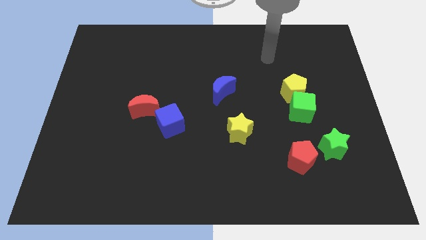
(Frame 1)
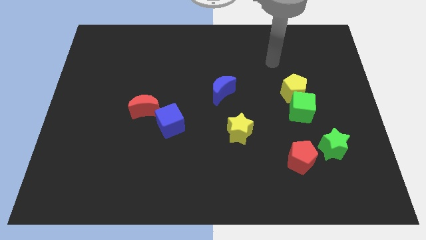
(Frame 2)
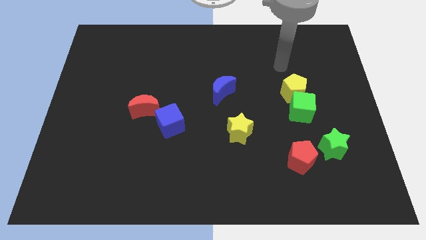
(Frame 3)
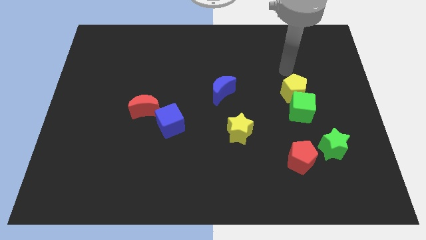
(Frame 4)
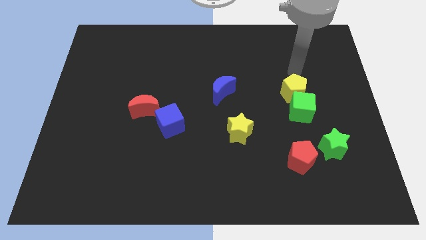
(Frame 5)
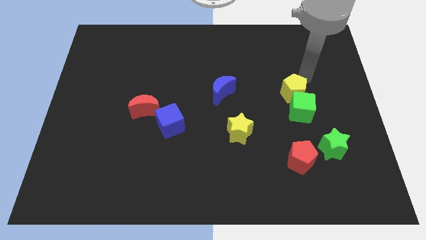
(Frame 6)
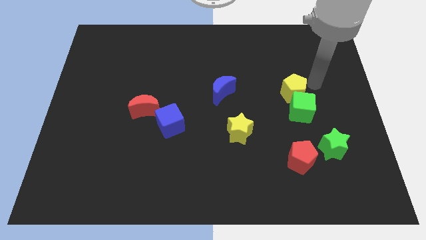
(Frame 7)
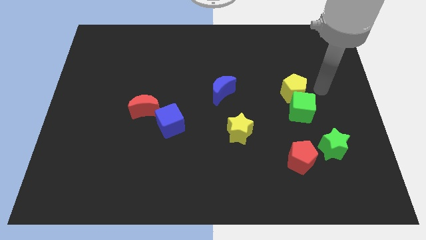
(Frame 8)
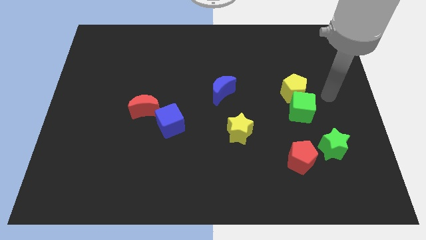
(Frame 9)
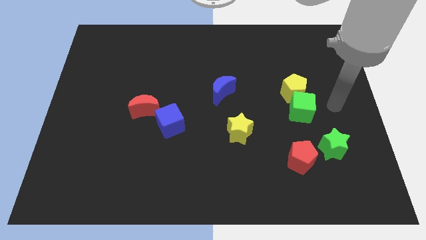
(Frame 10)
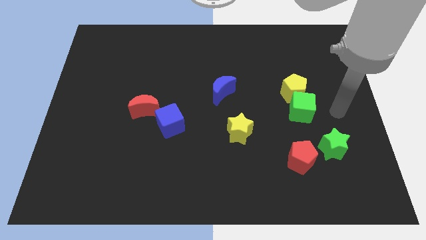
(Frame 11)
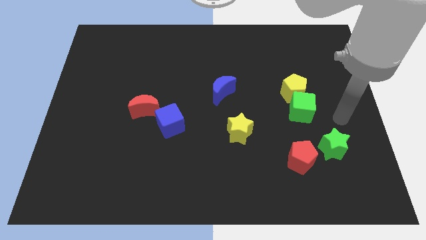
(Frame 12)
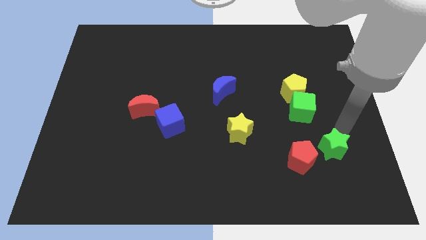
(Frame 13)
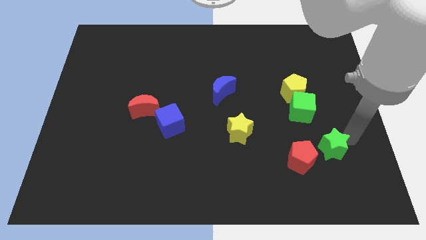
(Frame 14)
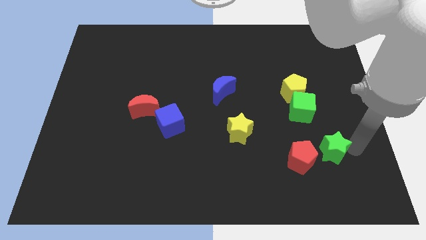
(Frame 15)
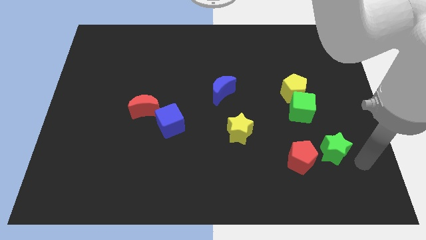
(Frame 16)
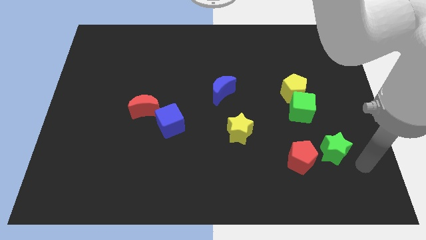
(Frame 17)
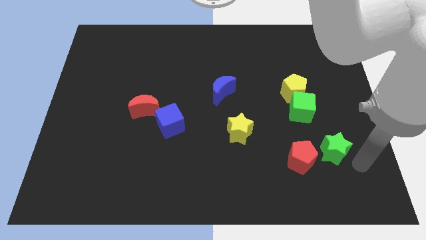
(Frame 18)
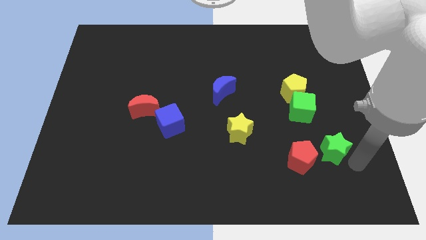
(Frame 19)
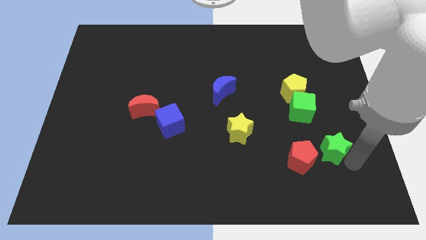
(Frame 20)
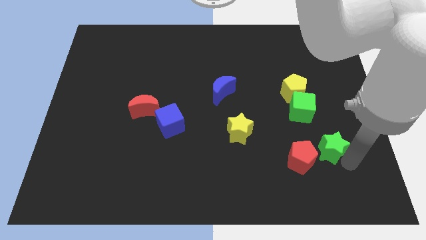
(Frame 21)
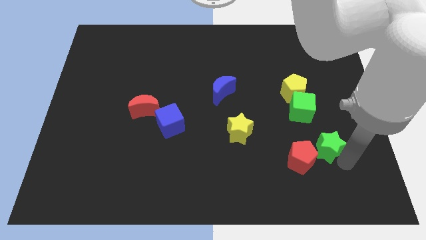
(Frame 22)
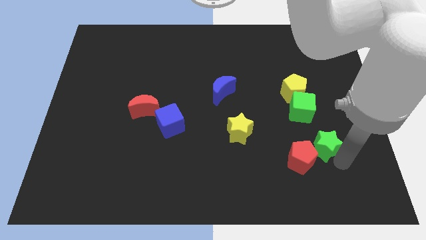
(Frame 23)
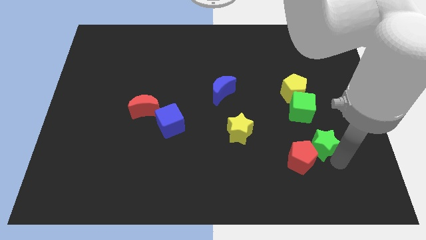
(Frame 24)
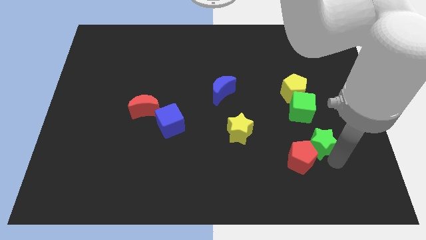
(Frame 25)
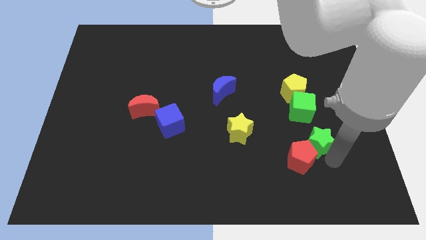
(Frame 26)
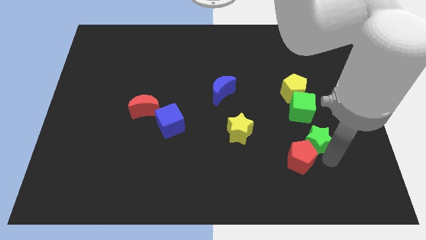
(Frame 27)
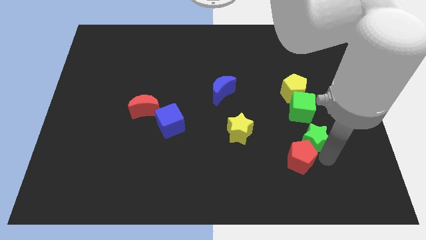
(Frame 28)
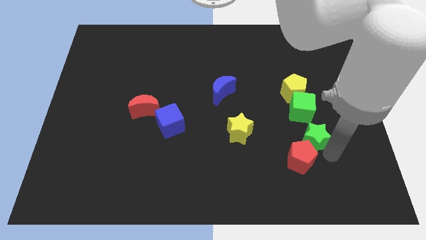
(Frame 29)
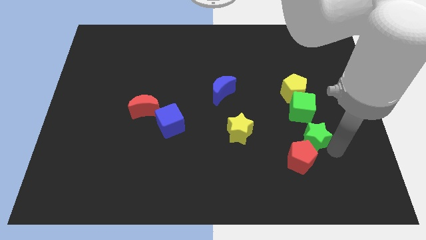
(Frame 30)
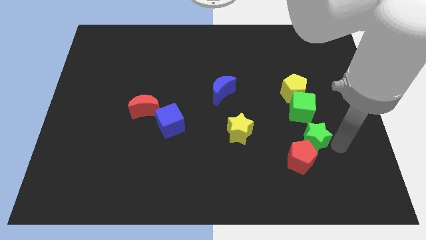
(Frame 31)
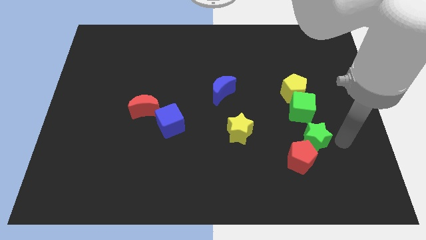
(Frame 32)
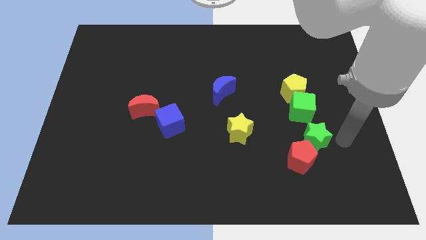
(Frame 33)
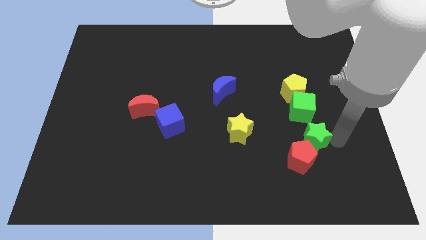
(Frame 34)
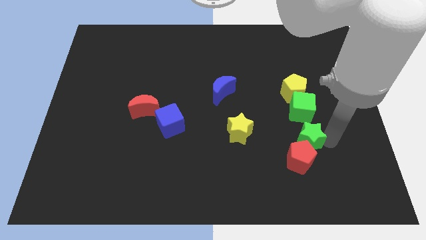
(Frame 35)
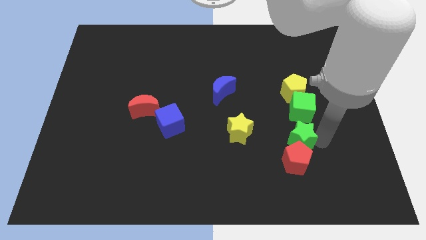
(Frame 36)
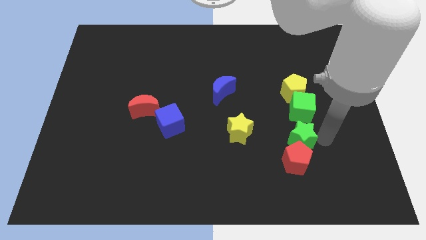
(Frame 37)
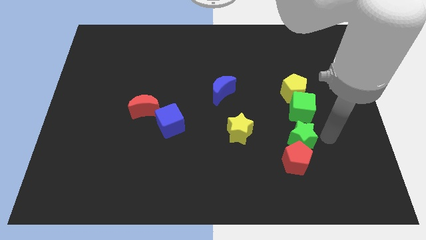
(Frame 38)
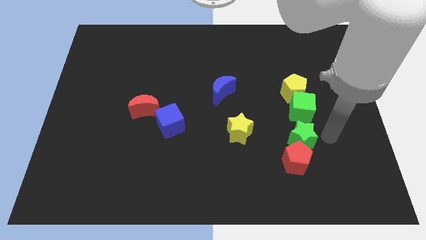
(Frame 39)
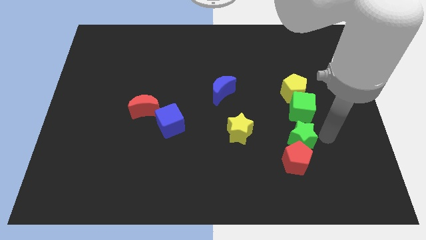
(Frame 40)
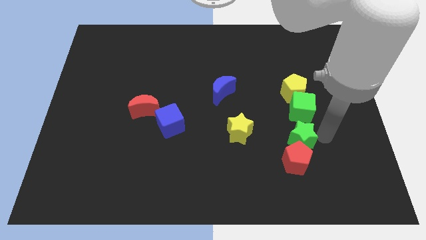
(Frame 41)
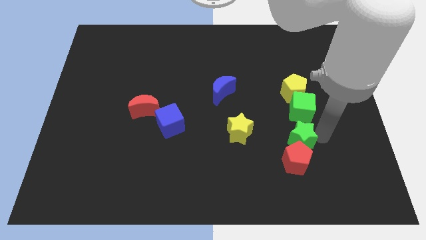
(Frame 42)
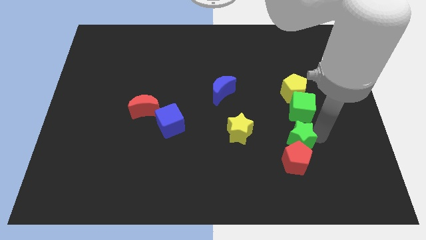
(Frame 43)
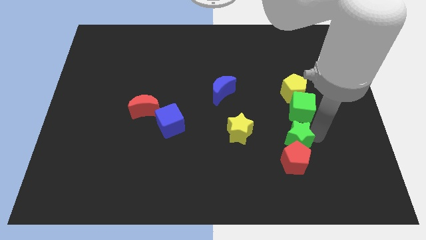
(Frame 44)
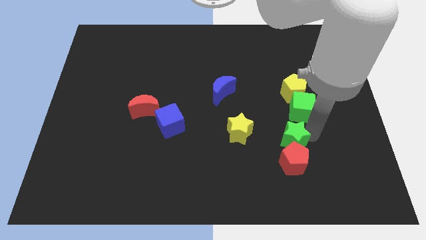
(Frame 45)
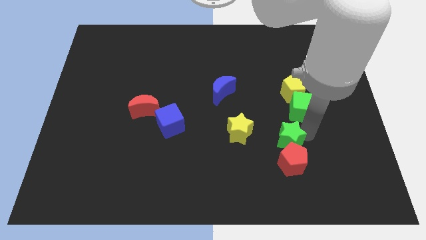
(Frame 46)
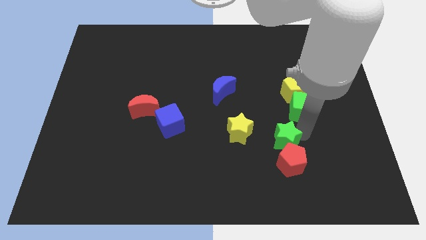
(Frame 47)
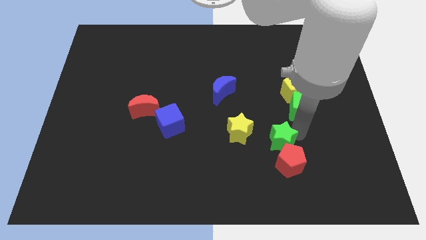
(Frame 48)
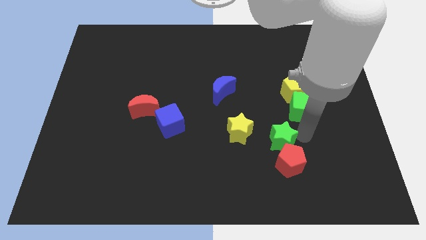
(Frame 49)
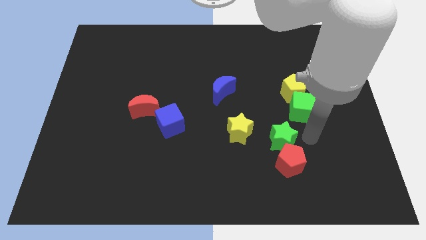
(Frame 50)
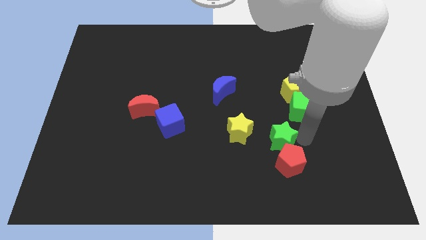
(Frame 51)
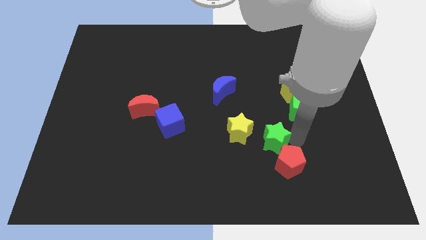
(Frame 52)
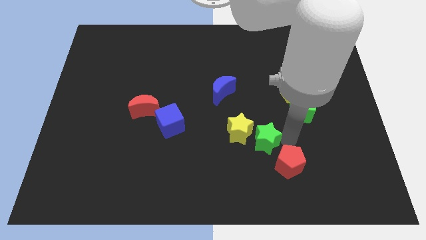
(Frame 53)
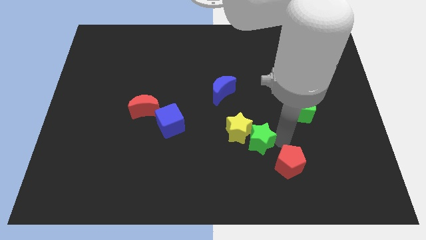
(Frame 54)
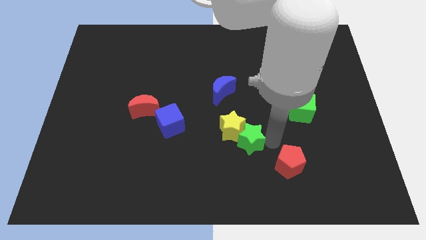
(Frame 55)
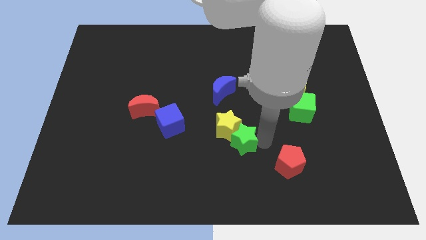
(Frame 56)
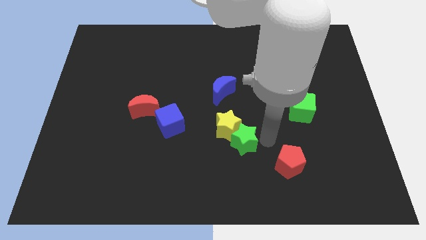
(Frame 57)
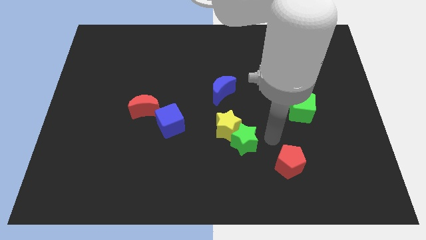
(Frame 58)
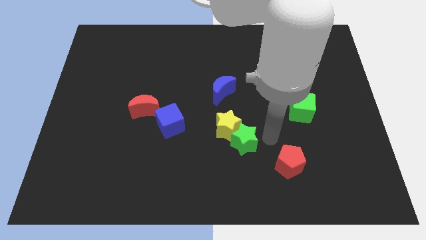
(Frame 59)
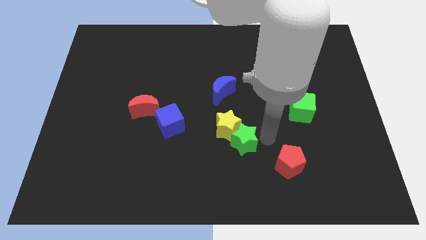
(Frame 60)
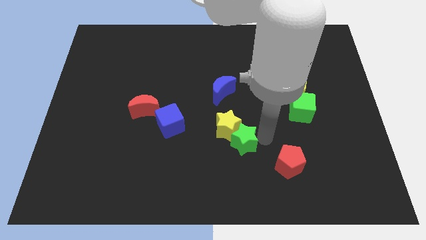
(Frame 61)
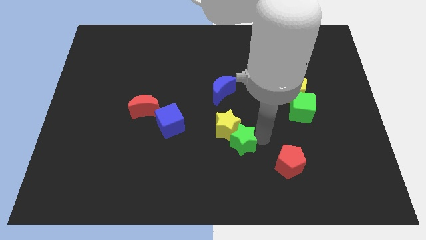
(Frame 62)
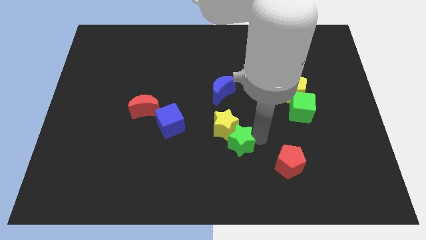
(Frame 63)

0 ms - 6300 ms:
move the green star to the left

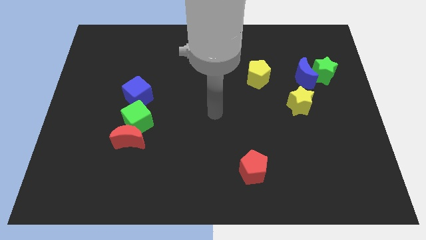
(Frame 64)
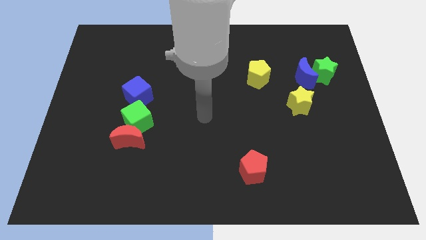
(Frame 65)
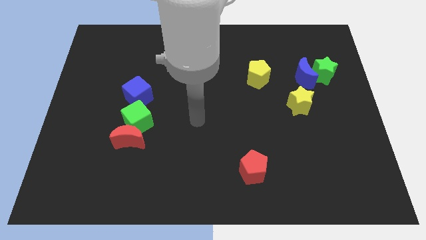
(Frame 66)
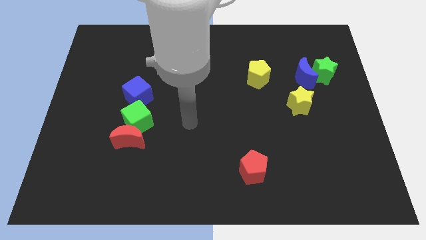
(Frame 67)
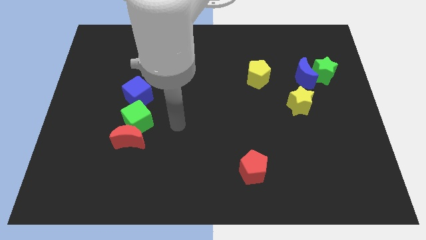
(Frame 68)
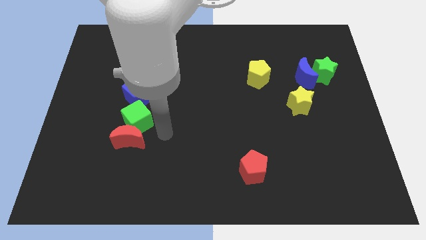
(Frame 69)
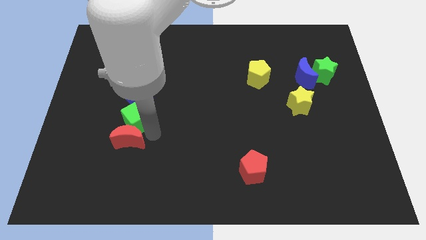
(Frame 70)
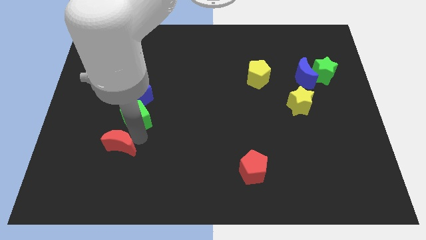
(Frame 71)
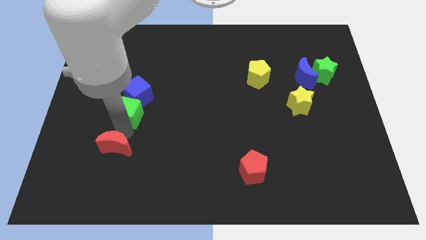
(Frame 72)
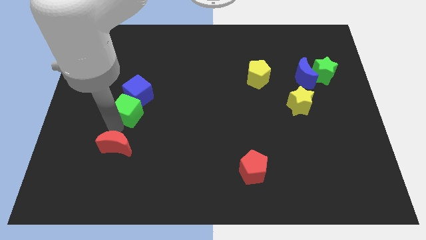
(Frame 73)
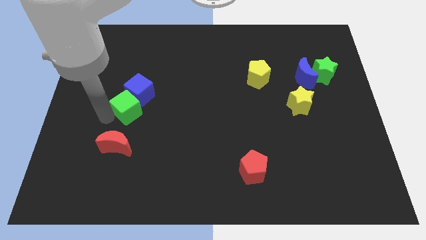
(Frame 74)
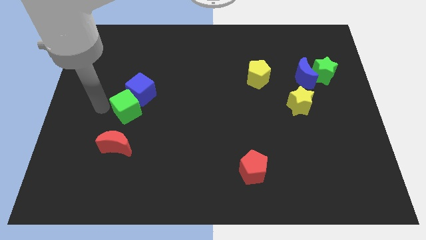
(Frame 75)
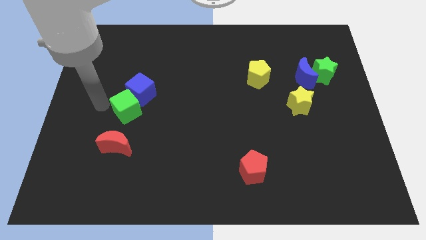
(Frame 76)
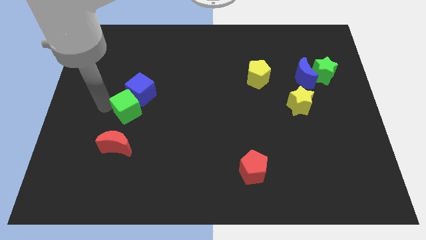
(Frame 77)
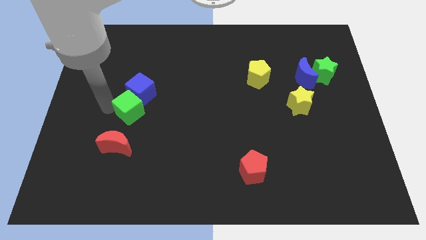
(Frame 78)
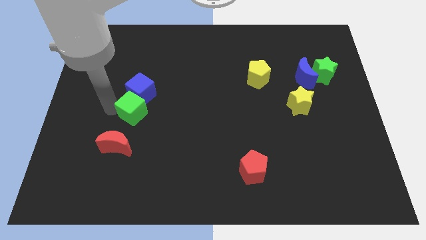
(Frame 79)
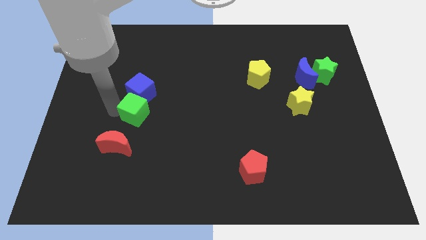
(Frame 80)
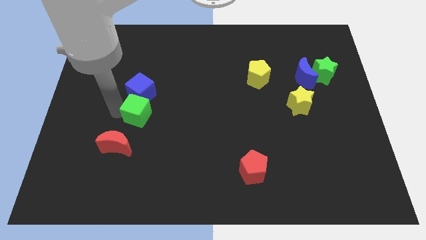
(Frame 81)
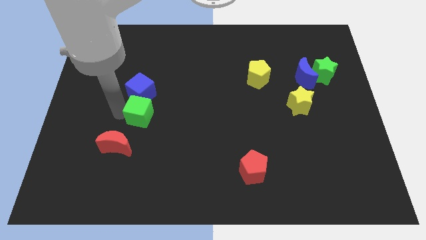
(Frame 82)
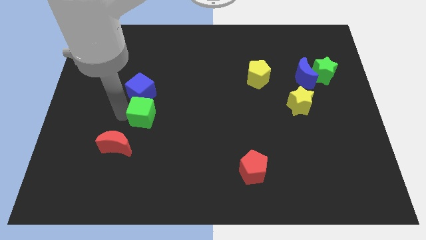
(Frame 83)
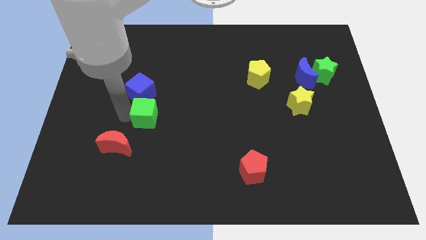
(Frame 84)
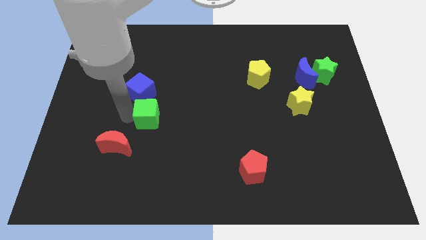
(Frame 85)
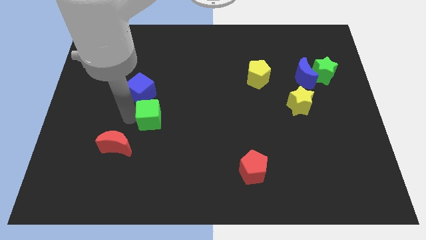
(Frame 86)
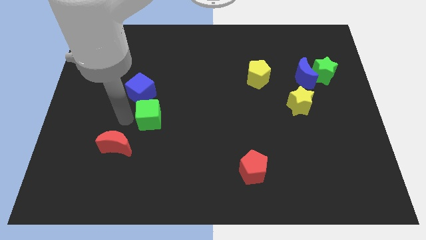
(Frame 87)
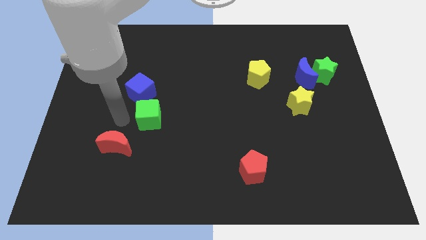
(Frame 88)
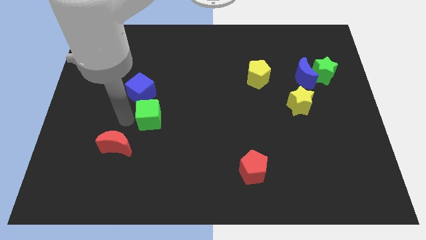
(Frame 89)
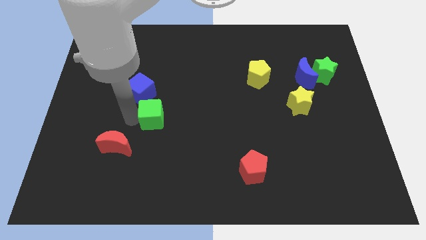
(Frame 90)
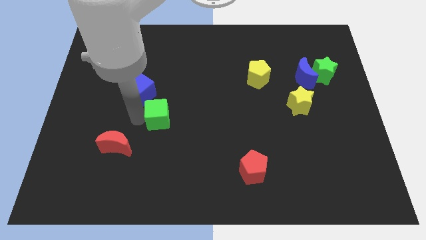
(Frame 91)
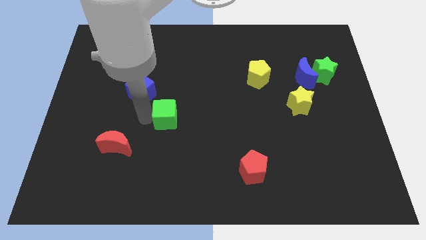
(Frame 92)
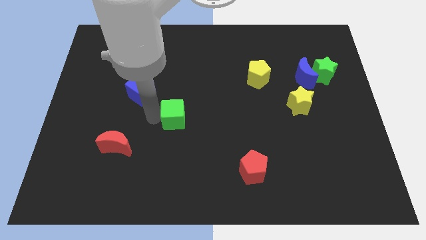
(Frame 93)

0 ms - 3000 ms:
push the green cube a bit right
